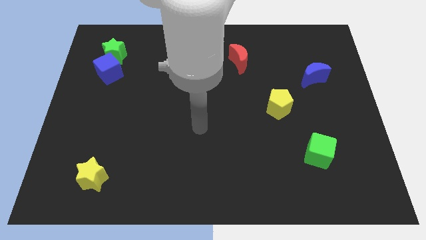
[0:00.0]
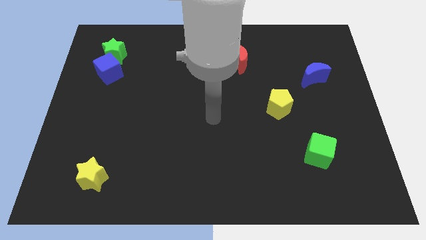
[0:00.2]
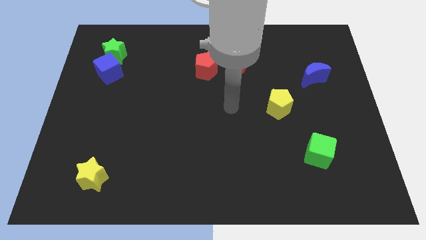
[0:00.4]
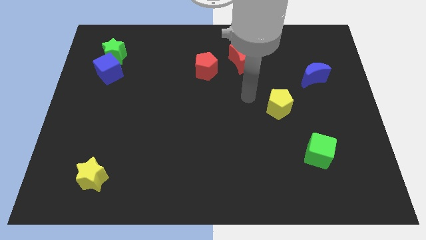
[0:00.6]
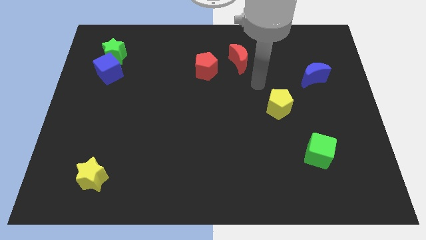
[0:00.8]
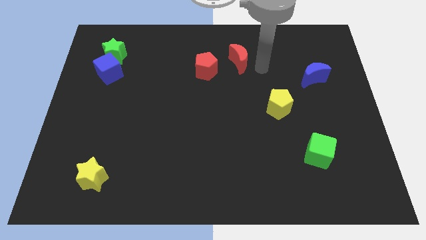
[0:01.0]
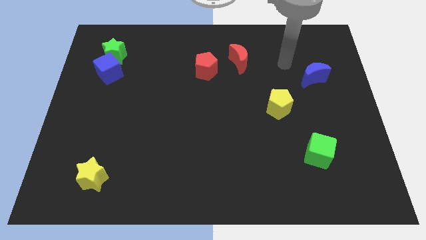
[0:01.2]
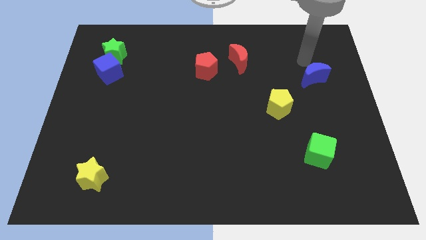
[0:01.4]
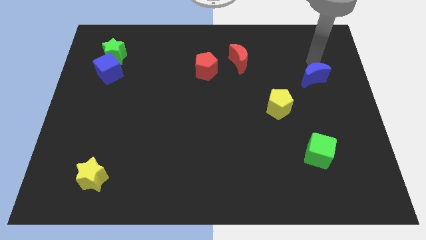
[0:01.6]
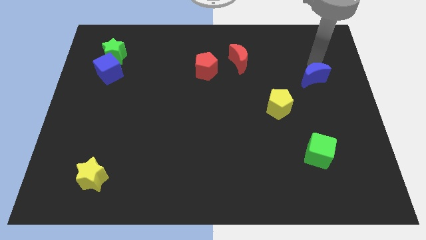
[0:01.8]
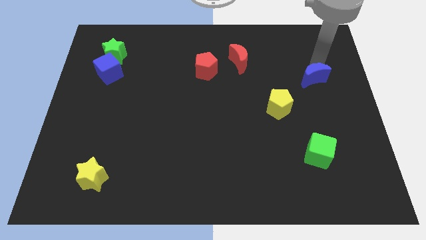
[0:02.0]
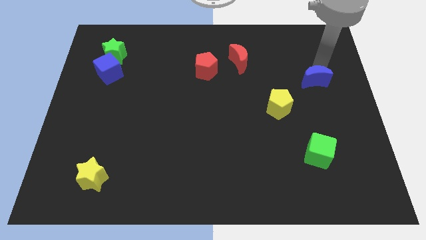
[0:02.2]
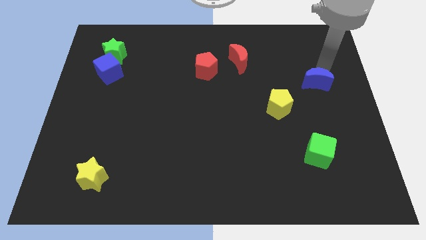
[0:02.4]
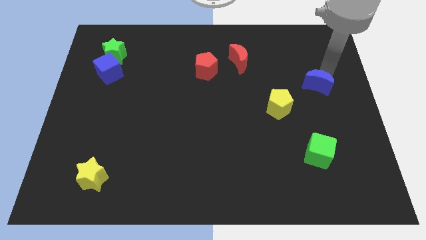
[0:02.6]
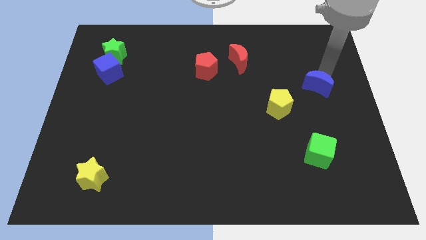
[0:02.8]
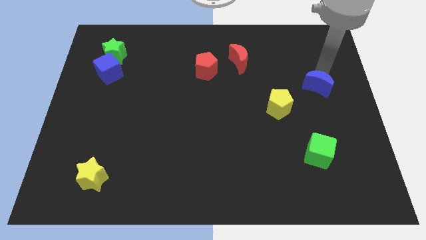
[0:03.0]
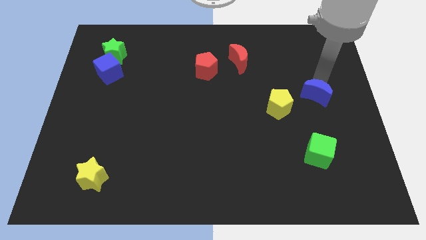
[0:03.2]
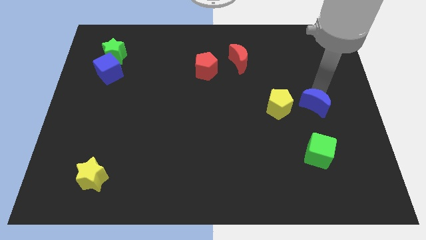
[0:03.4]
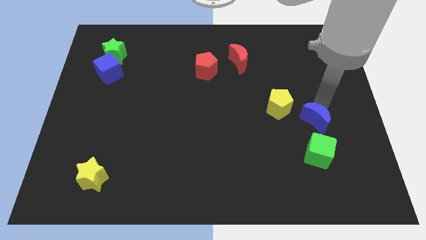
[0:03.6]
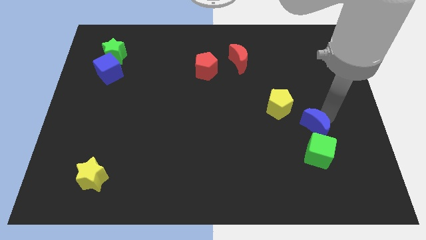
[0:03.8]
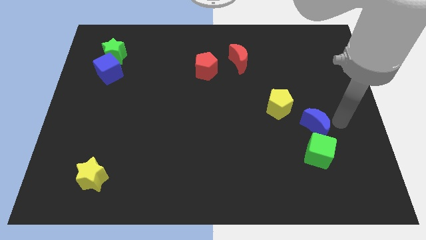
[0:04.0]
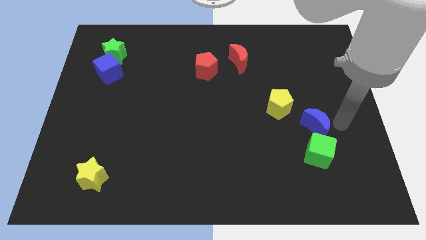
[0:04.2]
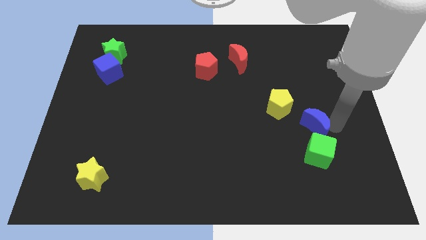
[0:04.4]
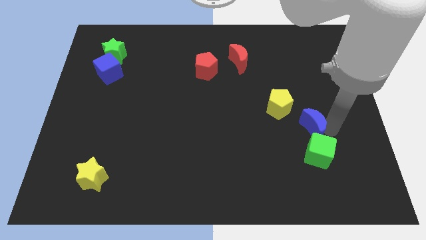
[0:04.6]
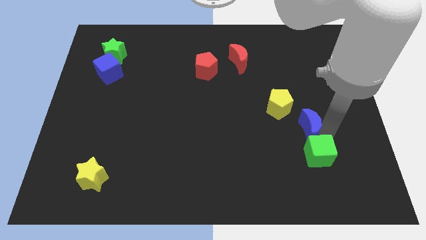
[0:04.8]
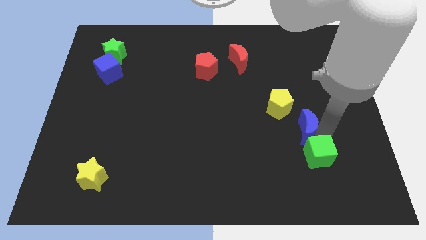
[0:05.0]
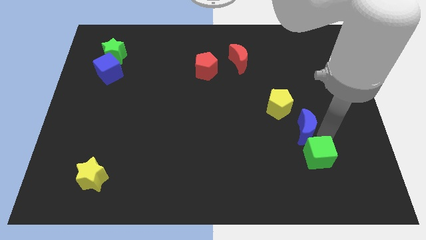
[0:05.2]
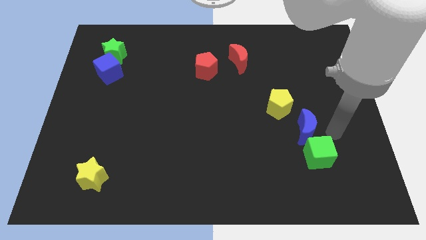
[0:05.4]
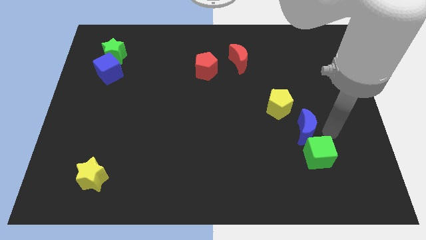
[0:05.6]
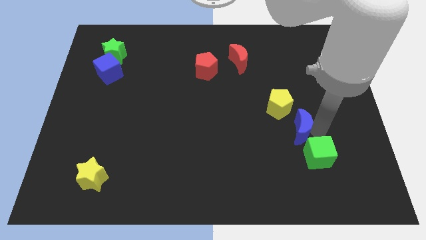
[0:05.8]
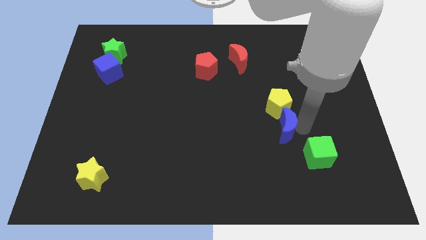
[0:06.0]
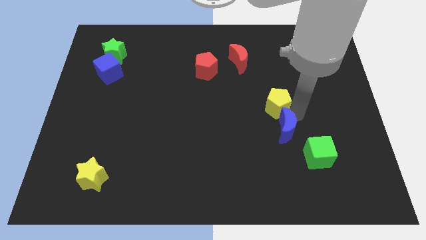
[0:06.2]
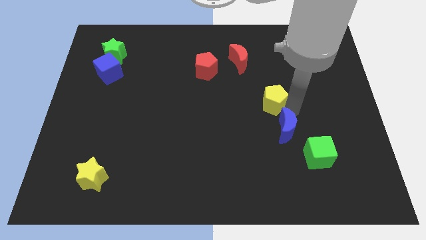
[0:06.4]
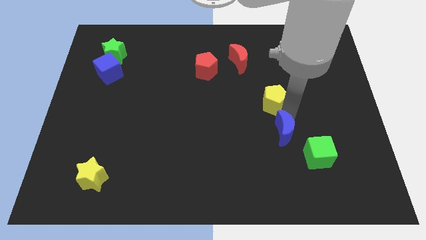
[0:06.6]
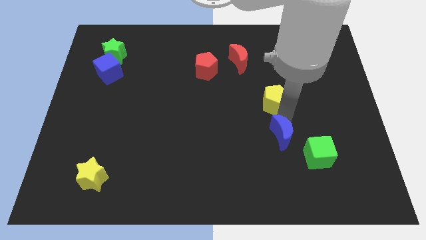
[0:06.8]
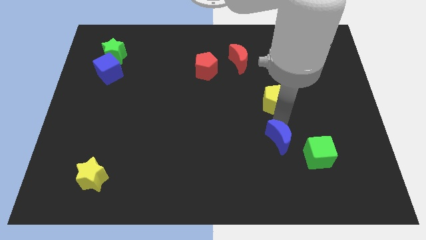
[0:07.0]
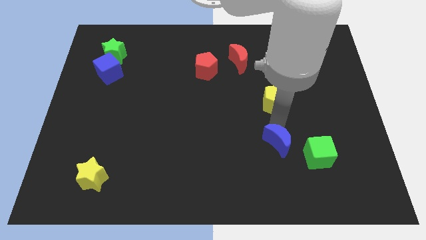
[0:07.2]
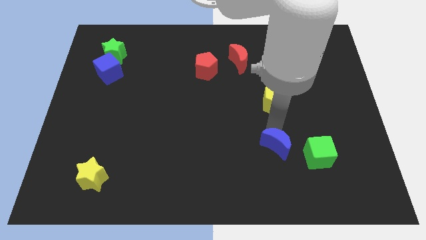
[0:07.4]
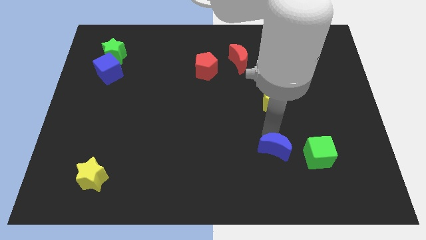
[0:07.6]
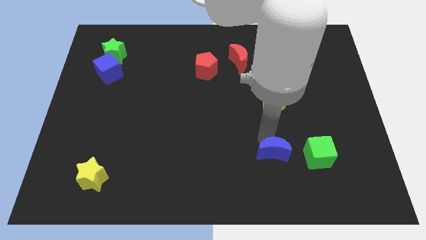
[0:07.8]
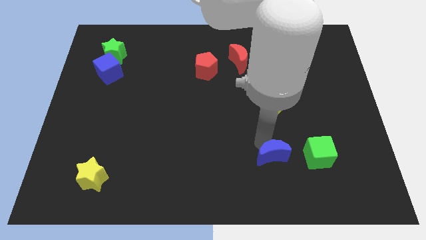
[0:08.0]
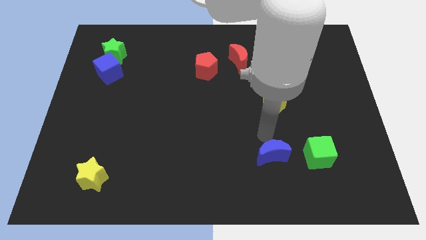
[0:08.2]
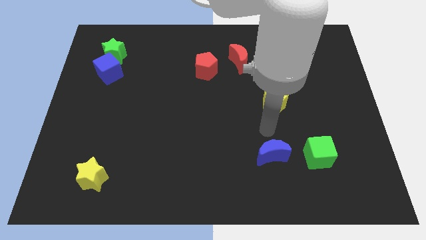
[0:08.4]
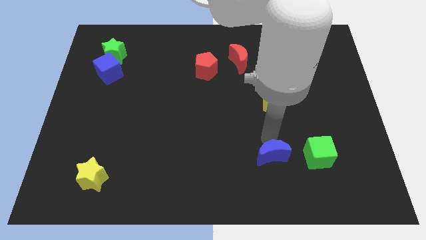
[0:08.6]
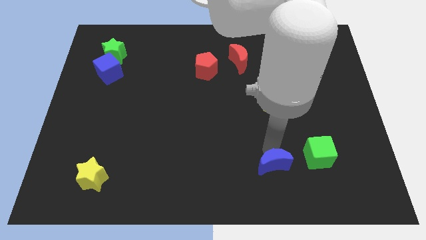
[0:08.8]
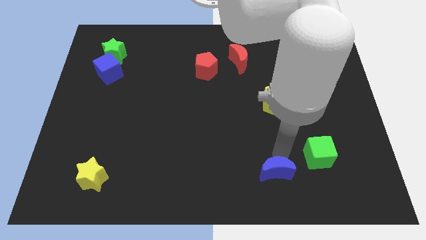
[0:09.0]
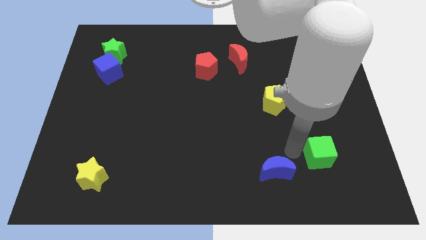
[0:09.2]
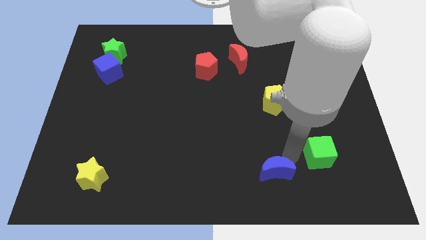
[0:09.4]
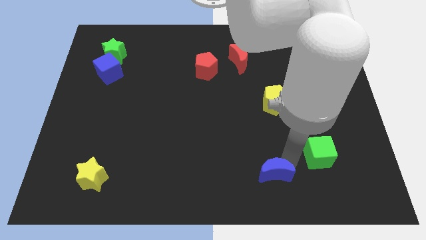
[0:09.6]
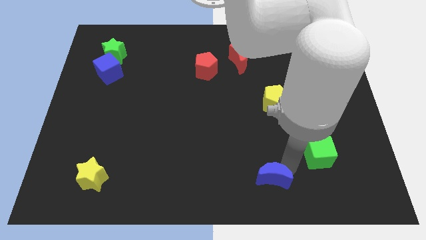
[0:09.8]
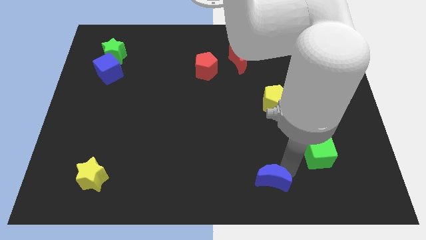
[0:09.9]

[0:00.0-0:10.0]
move the blue moon to the bottom

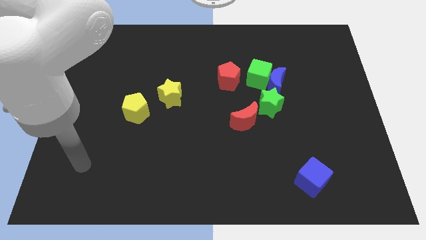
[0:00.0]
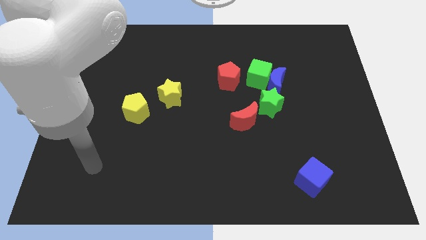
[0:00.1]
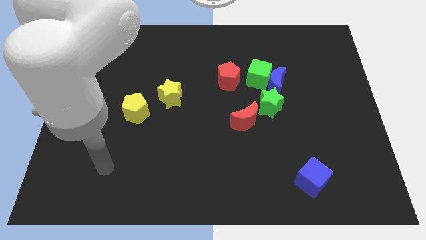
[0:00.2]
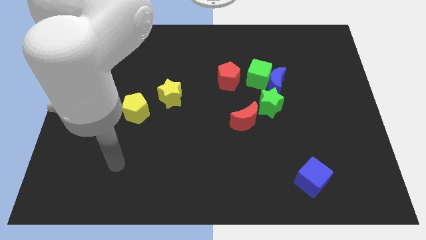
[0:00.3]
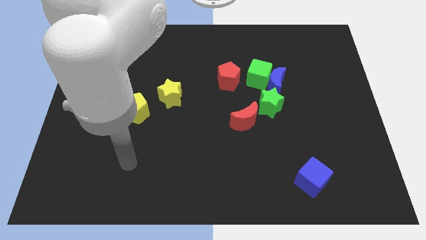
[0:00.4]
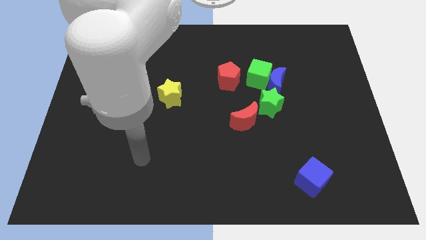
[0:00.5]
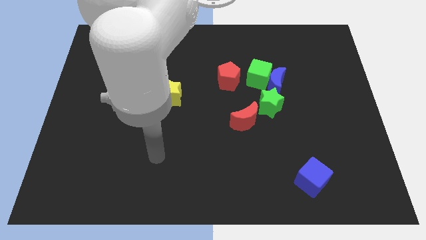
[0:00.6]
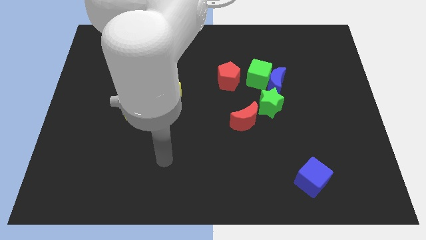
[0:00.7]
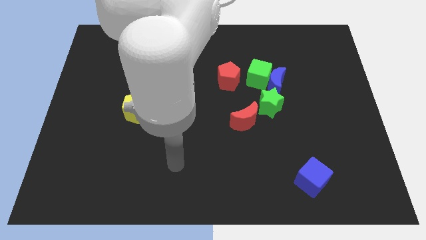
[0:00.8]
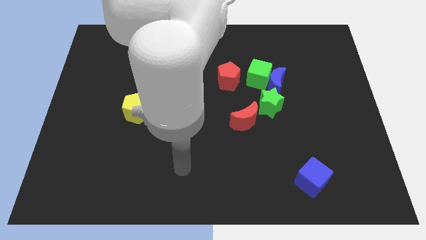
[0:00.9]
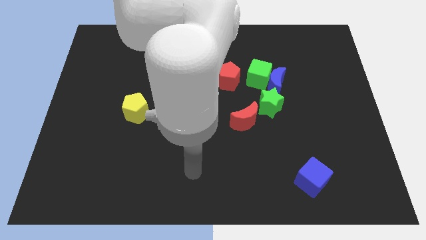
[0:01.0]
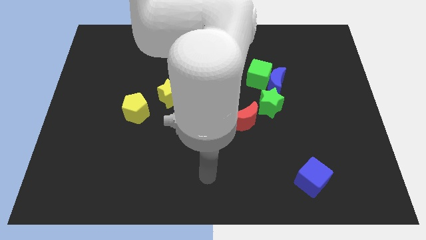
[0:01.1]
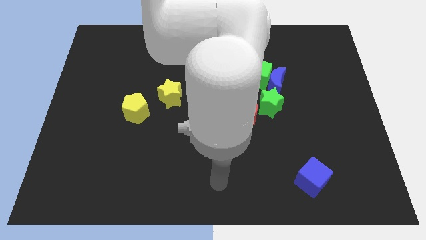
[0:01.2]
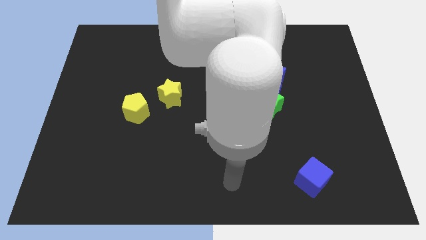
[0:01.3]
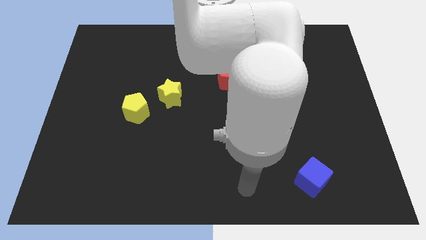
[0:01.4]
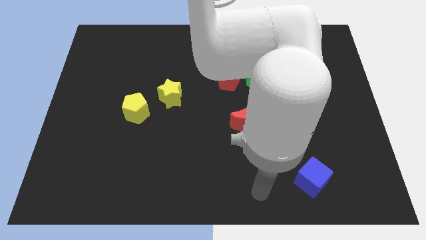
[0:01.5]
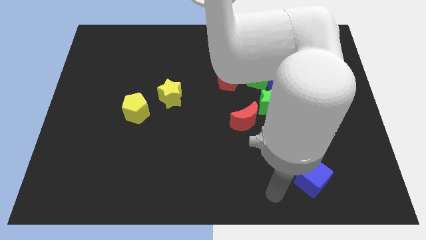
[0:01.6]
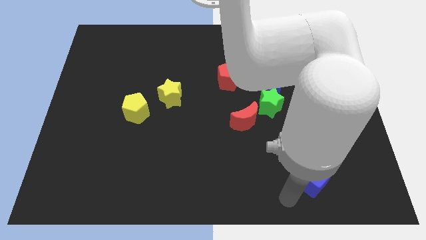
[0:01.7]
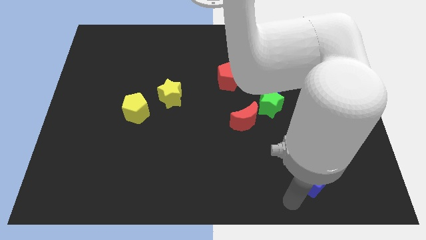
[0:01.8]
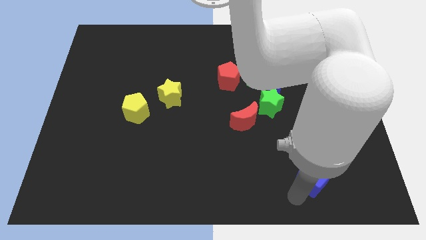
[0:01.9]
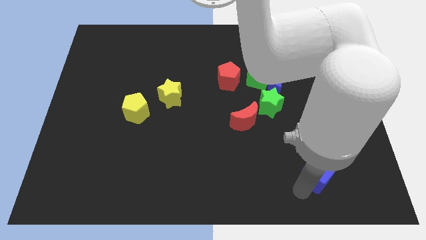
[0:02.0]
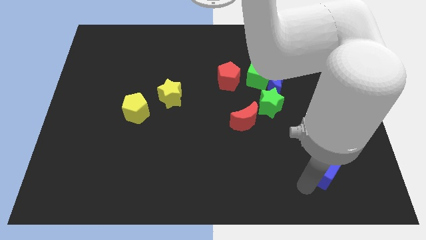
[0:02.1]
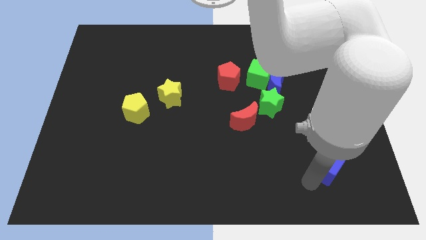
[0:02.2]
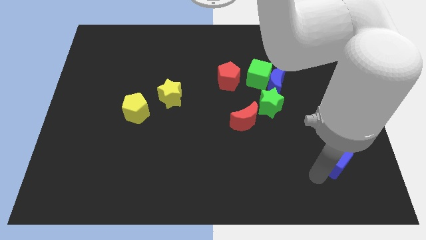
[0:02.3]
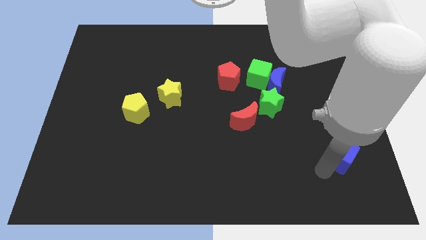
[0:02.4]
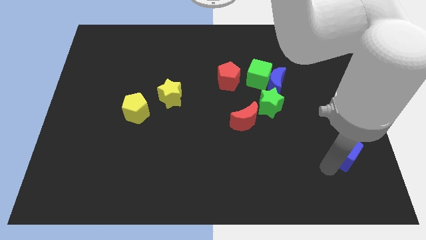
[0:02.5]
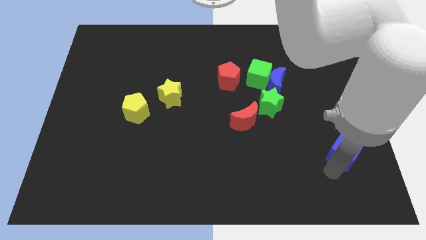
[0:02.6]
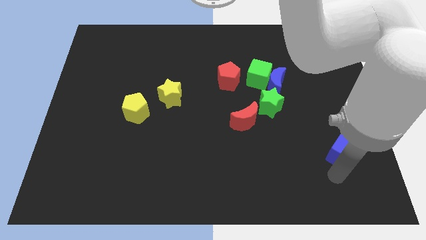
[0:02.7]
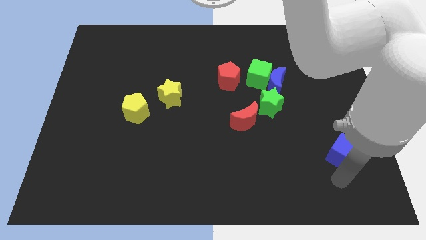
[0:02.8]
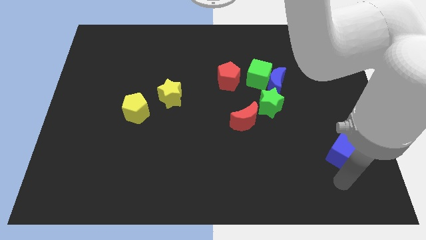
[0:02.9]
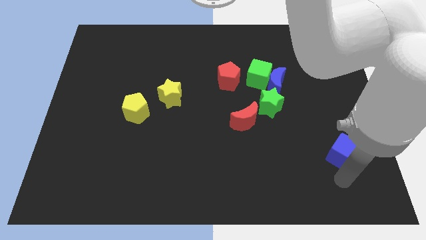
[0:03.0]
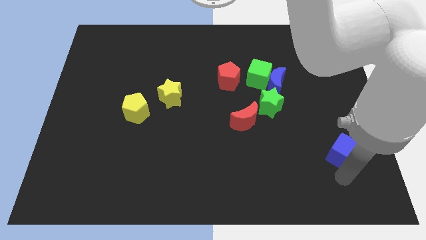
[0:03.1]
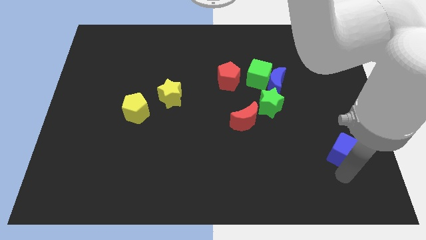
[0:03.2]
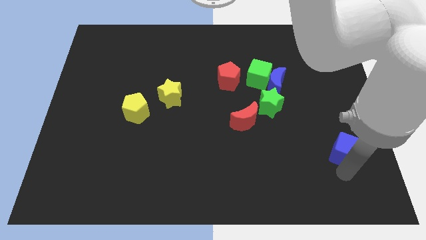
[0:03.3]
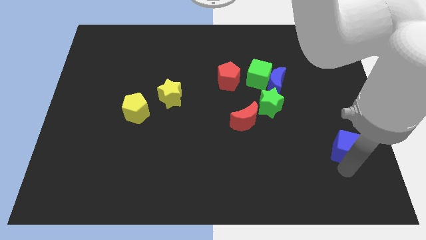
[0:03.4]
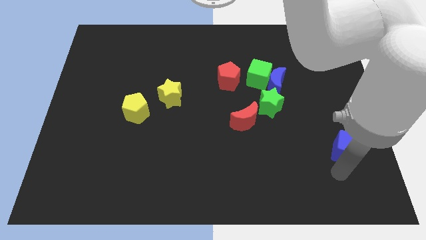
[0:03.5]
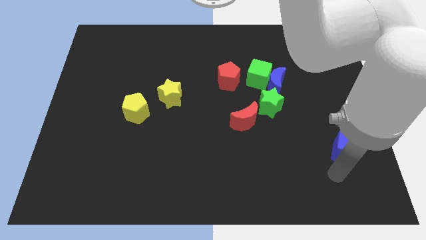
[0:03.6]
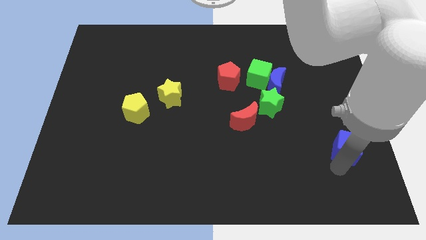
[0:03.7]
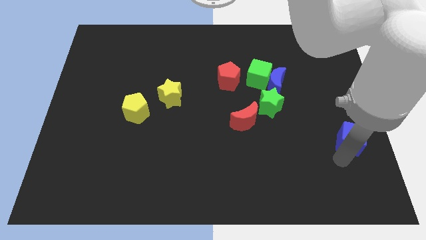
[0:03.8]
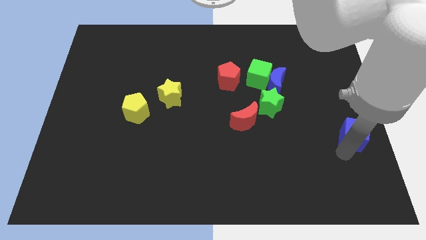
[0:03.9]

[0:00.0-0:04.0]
put the blue cube to the center right
